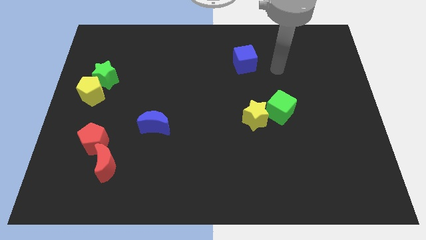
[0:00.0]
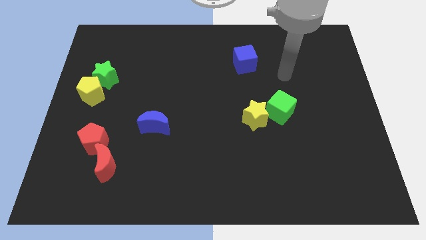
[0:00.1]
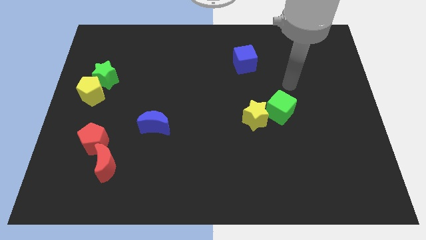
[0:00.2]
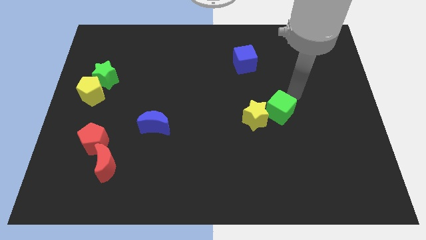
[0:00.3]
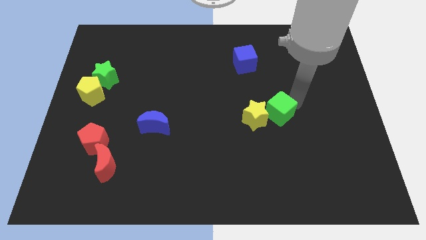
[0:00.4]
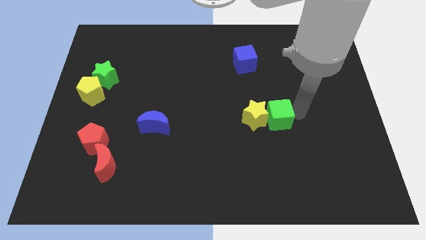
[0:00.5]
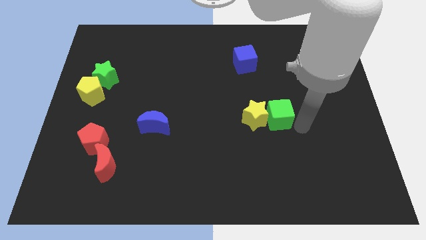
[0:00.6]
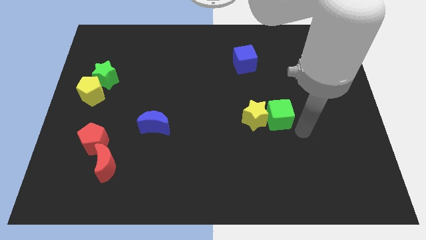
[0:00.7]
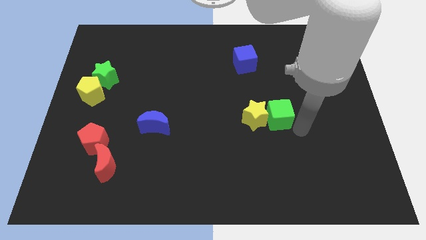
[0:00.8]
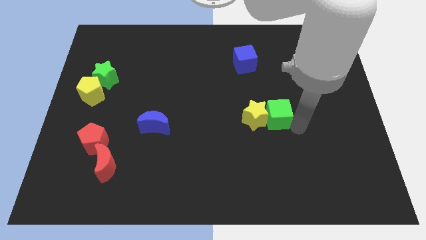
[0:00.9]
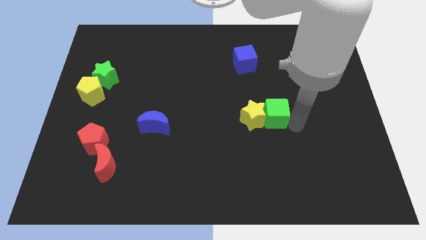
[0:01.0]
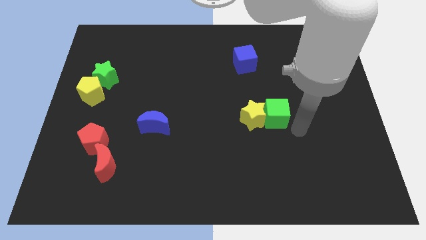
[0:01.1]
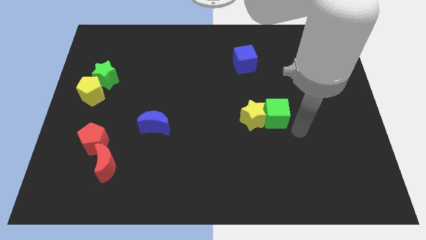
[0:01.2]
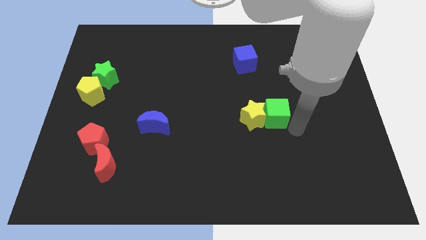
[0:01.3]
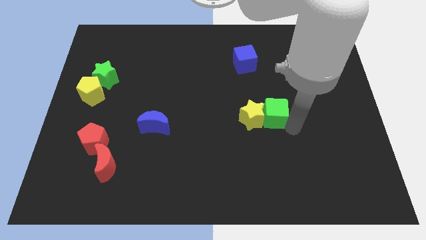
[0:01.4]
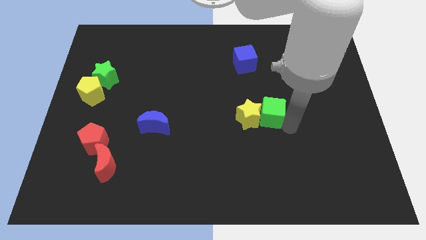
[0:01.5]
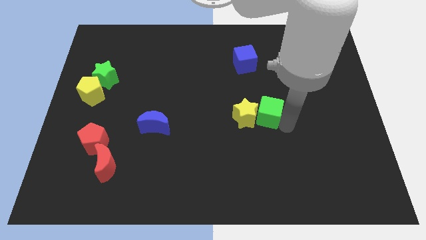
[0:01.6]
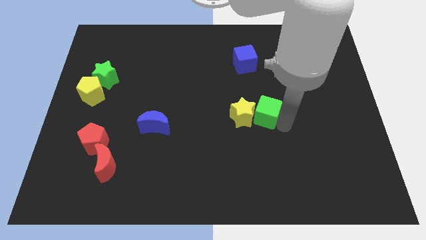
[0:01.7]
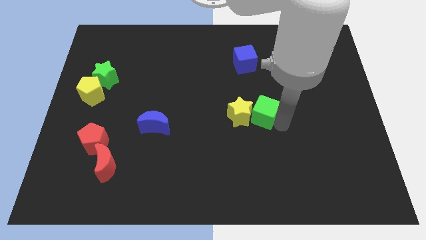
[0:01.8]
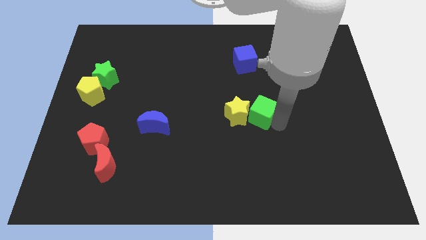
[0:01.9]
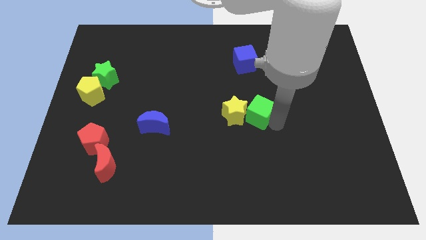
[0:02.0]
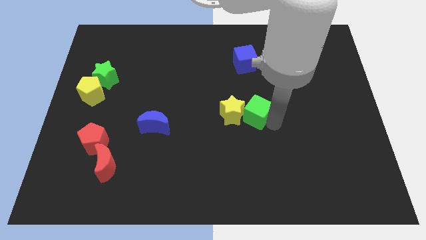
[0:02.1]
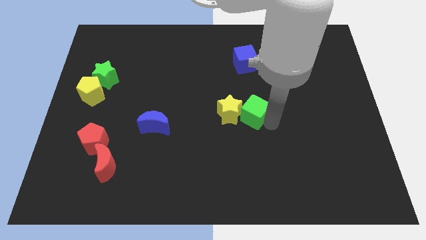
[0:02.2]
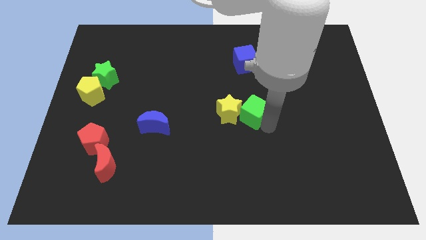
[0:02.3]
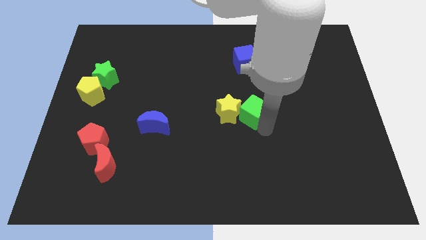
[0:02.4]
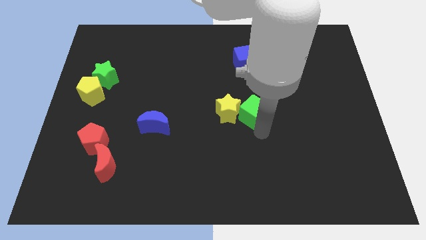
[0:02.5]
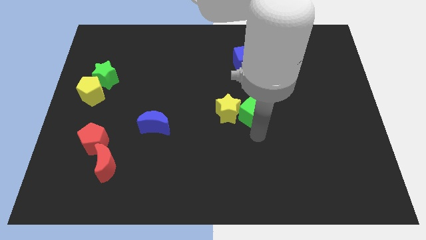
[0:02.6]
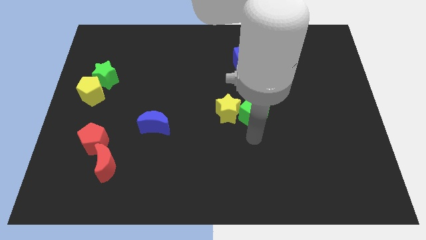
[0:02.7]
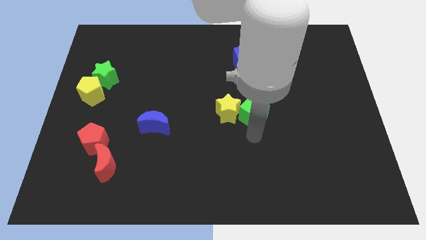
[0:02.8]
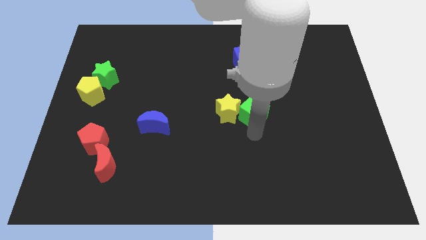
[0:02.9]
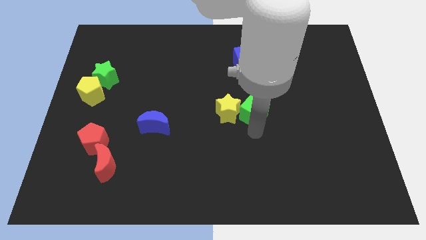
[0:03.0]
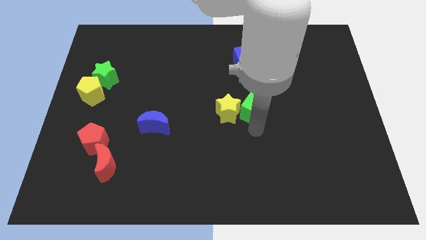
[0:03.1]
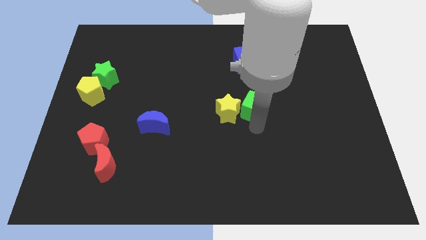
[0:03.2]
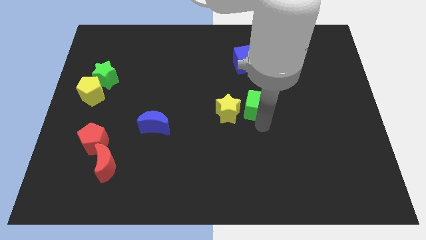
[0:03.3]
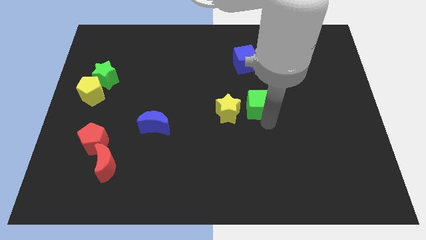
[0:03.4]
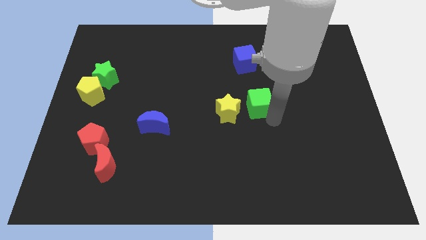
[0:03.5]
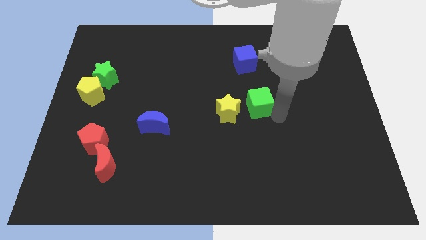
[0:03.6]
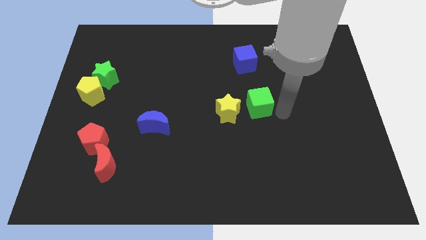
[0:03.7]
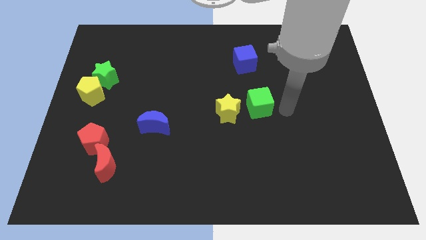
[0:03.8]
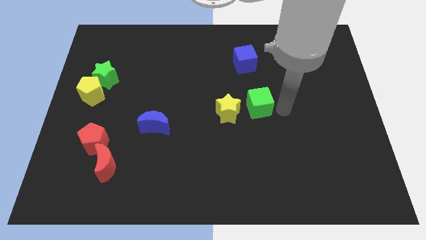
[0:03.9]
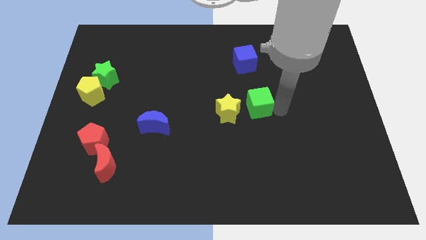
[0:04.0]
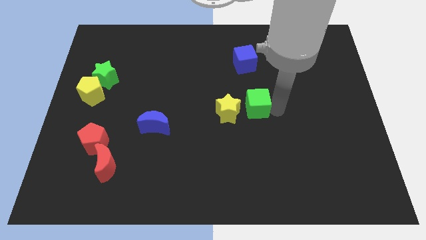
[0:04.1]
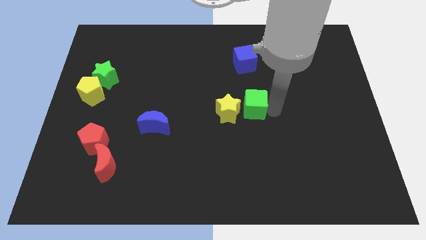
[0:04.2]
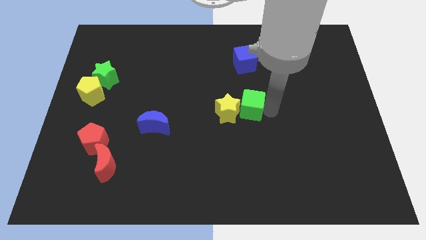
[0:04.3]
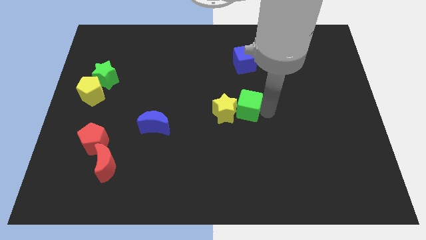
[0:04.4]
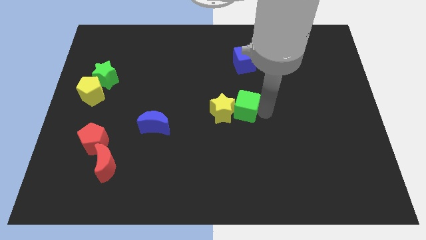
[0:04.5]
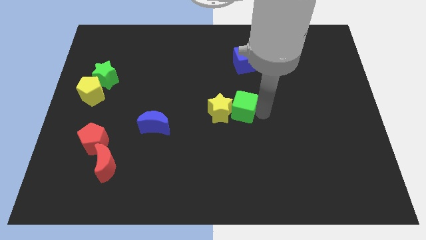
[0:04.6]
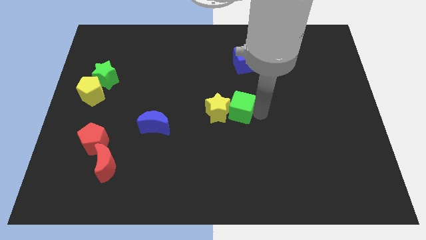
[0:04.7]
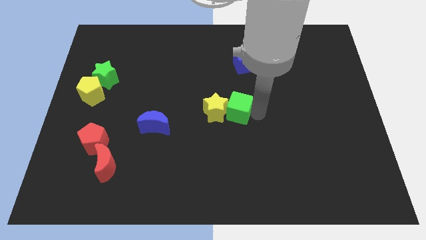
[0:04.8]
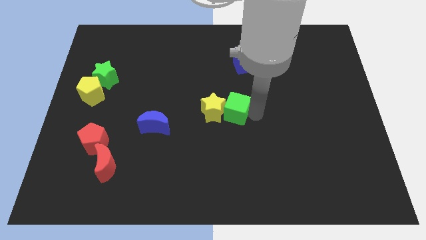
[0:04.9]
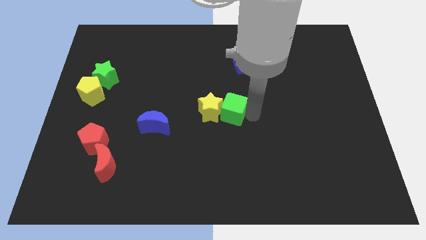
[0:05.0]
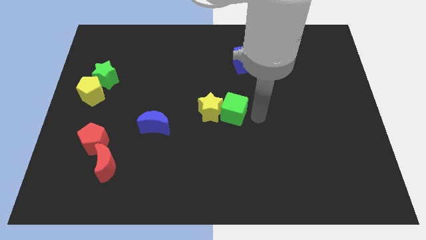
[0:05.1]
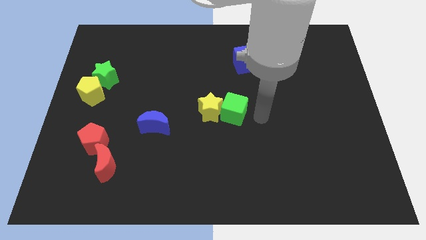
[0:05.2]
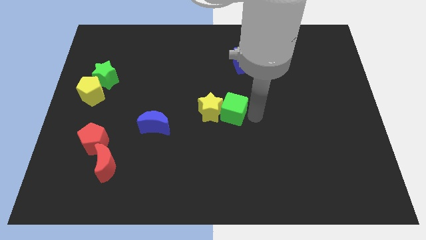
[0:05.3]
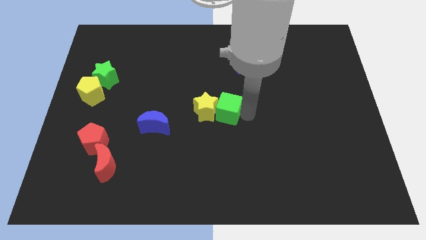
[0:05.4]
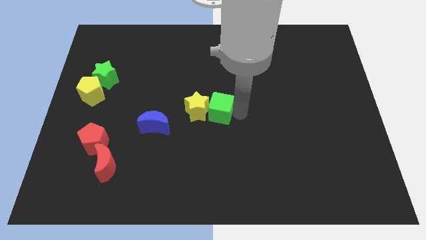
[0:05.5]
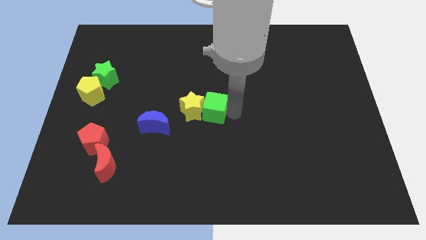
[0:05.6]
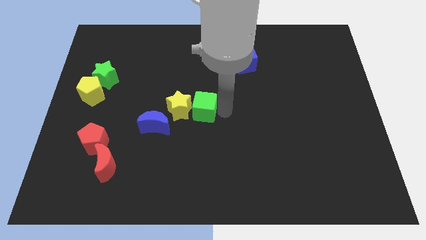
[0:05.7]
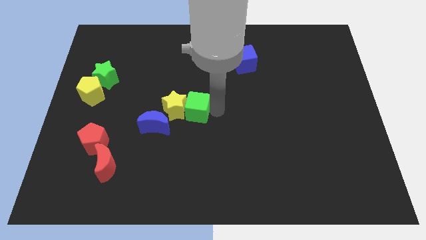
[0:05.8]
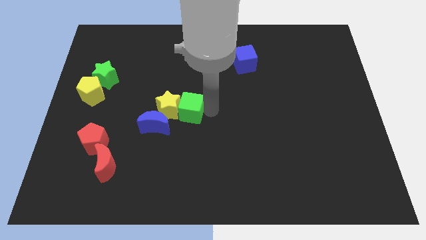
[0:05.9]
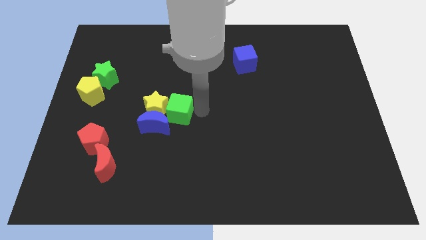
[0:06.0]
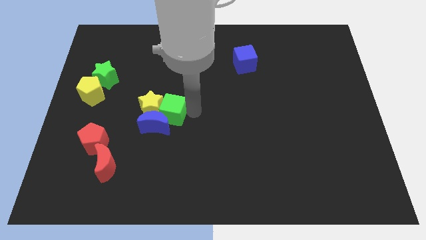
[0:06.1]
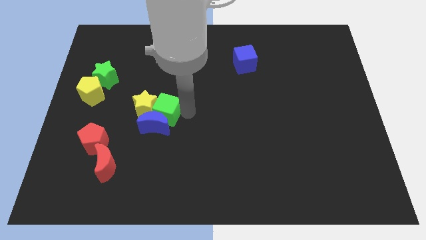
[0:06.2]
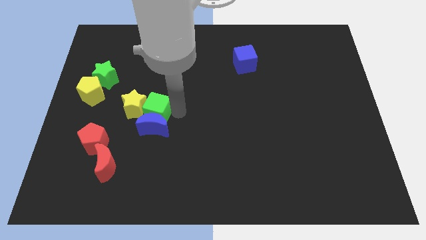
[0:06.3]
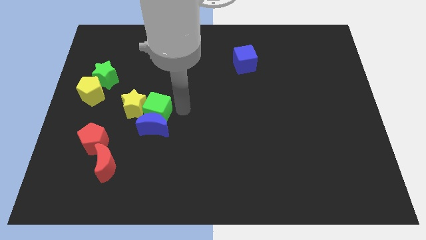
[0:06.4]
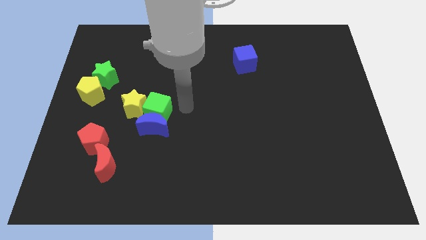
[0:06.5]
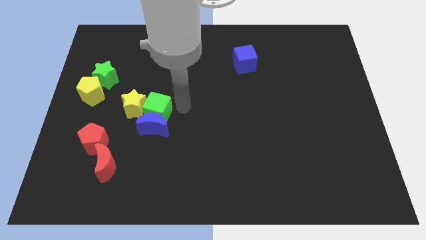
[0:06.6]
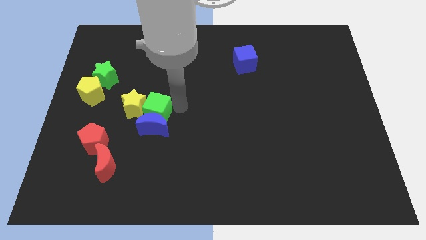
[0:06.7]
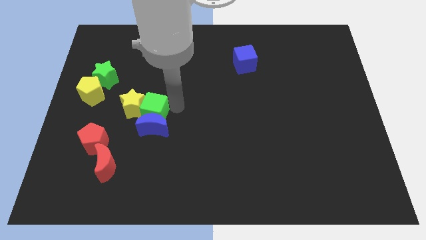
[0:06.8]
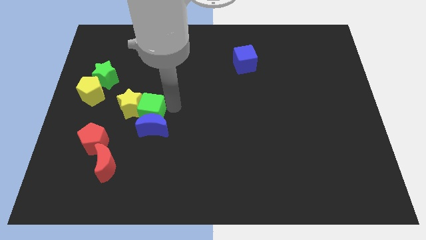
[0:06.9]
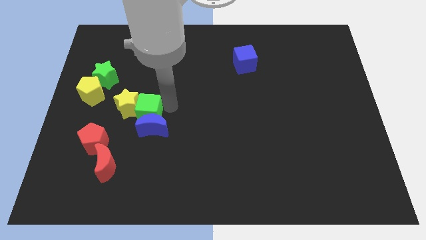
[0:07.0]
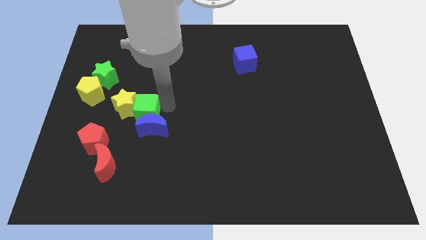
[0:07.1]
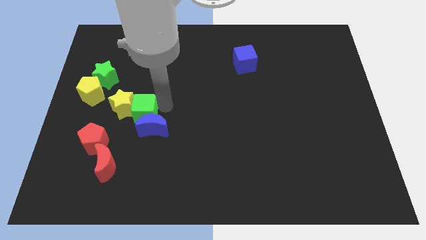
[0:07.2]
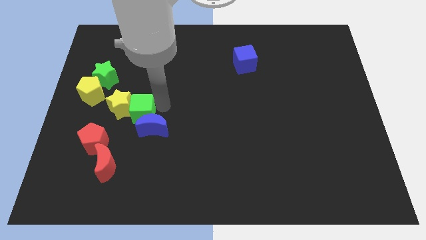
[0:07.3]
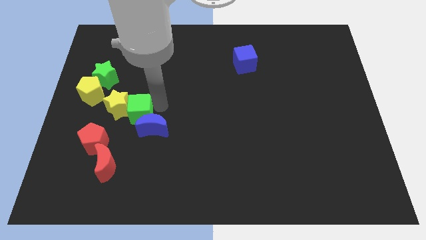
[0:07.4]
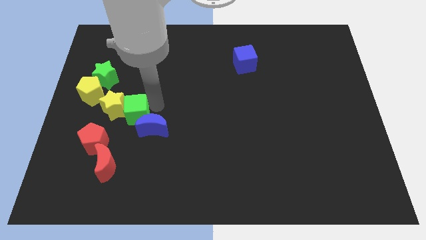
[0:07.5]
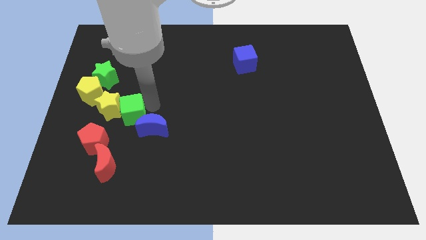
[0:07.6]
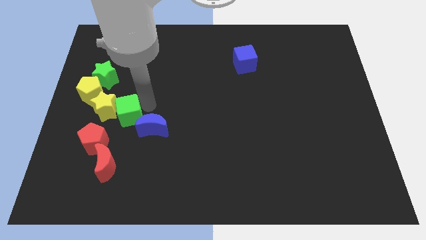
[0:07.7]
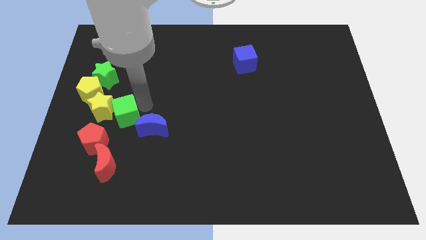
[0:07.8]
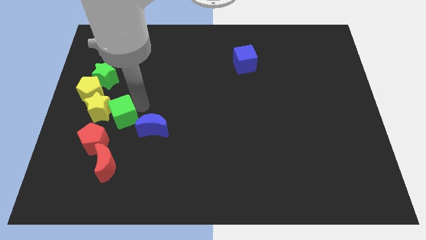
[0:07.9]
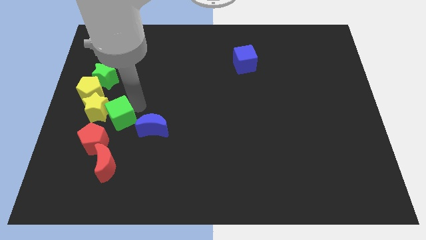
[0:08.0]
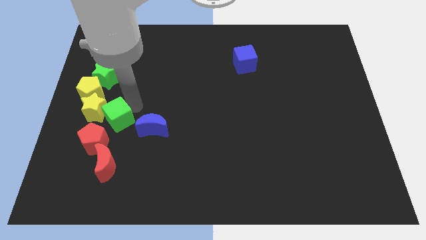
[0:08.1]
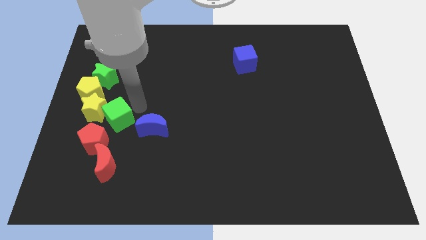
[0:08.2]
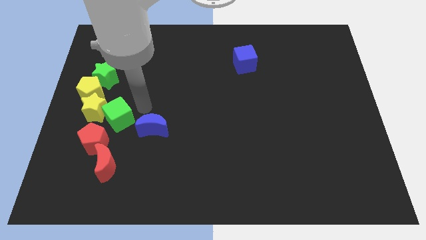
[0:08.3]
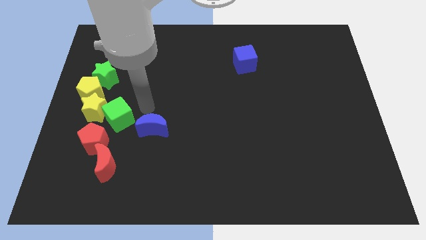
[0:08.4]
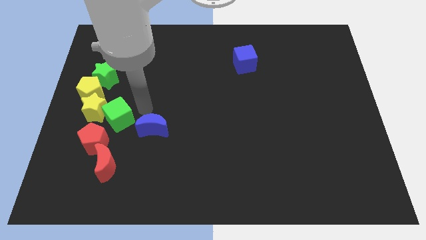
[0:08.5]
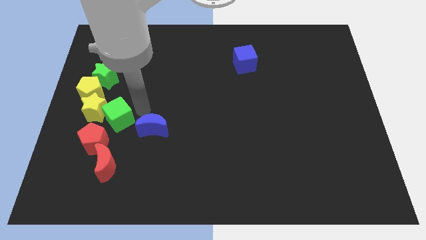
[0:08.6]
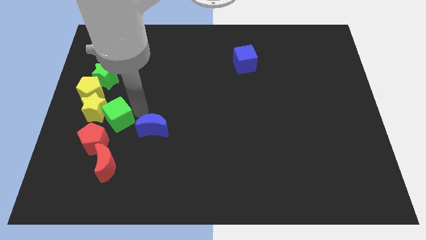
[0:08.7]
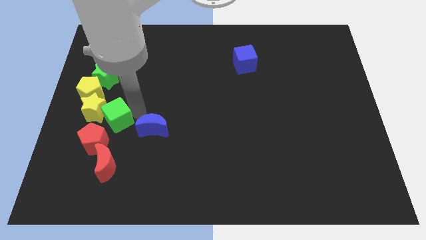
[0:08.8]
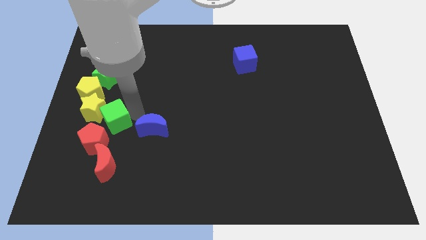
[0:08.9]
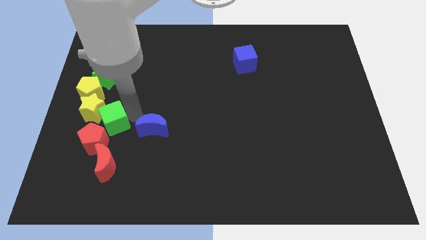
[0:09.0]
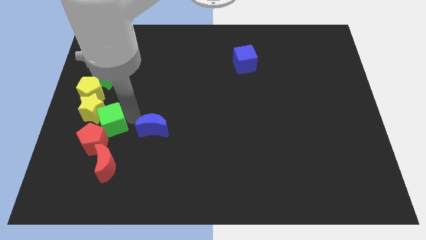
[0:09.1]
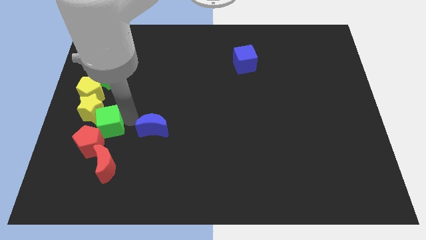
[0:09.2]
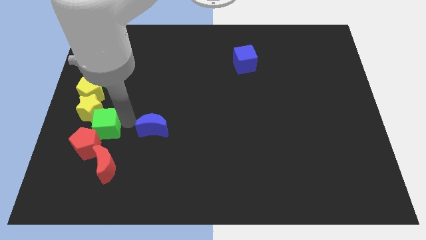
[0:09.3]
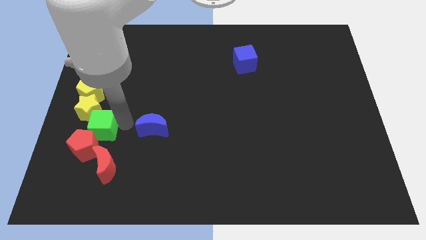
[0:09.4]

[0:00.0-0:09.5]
put the green cube to the bottom of the yellow pentagon
